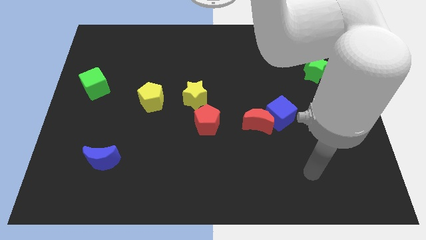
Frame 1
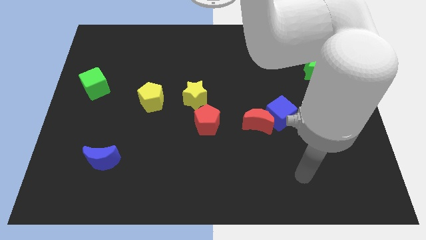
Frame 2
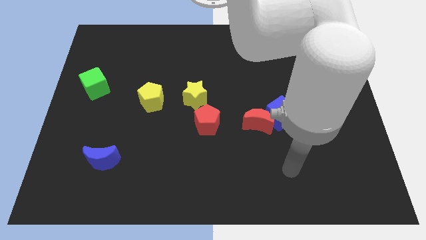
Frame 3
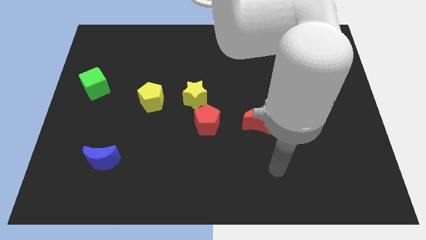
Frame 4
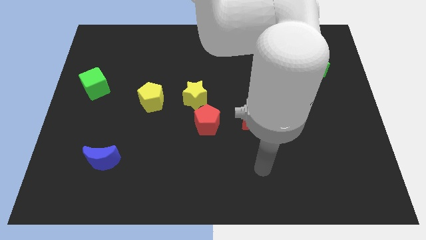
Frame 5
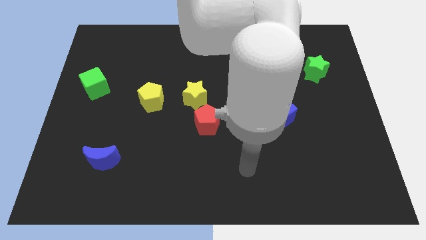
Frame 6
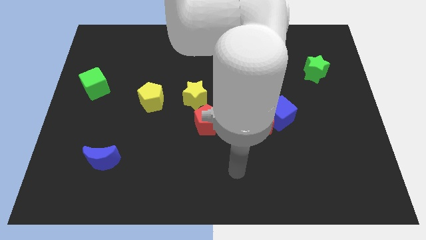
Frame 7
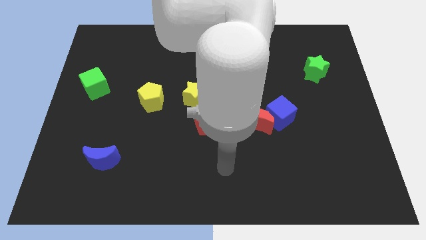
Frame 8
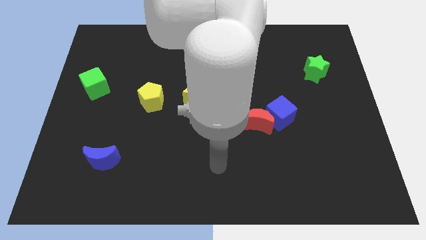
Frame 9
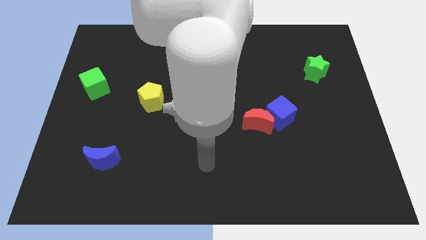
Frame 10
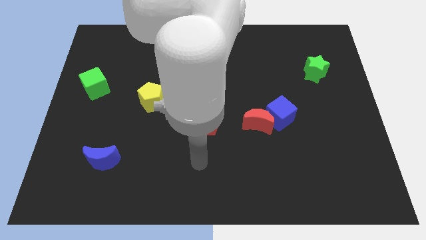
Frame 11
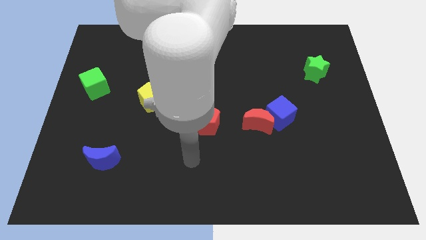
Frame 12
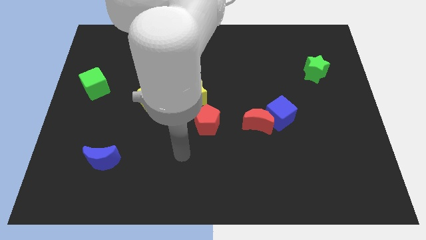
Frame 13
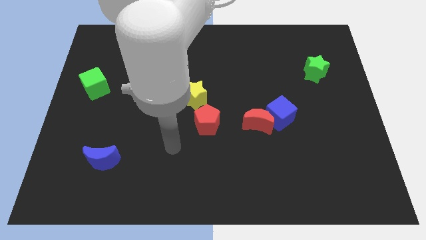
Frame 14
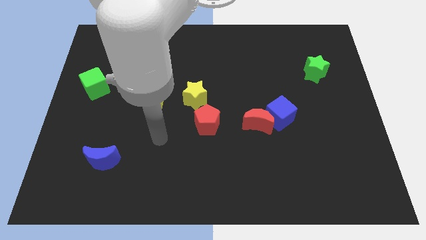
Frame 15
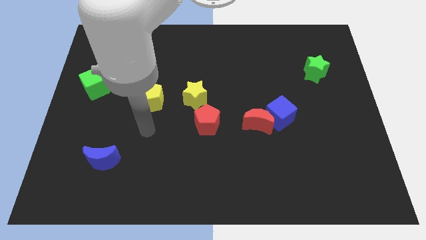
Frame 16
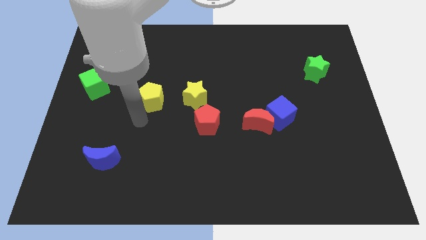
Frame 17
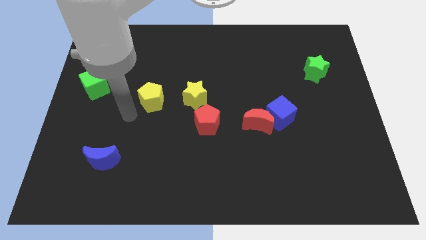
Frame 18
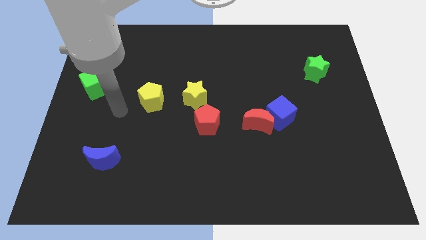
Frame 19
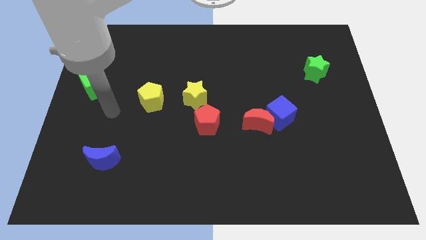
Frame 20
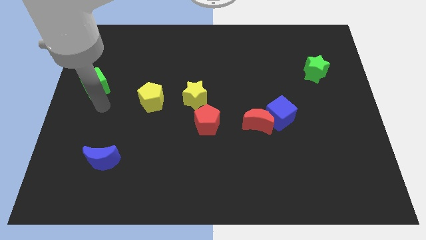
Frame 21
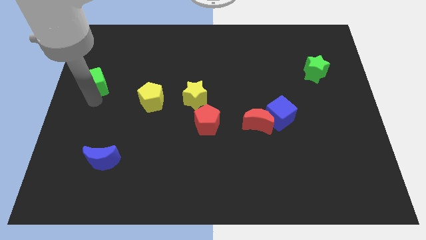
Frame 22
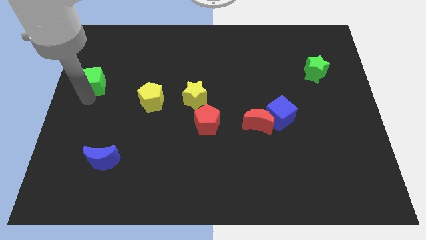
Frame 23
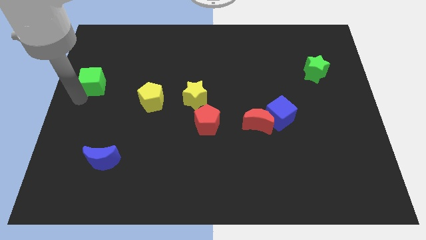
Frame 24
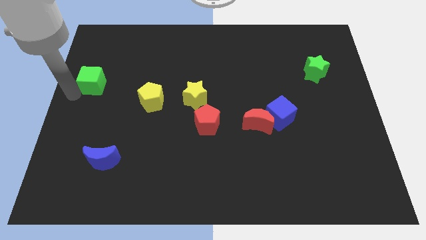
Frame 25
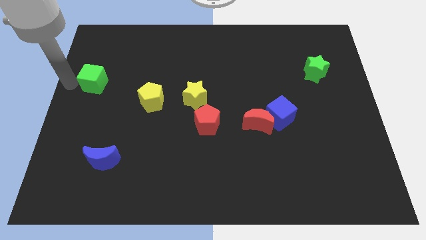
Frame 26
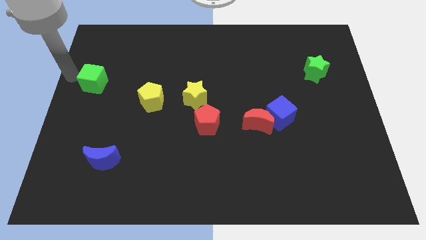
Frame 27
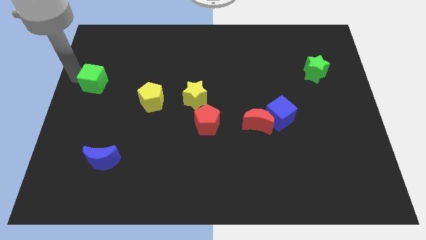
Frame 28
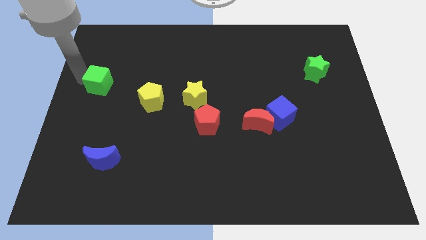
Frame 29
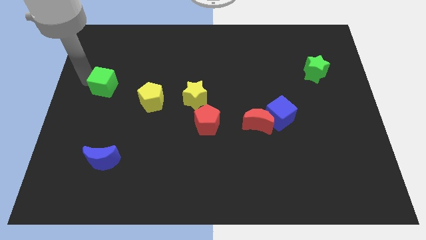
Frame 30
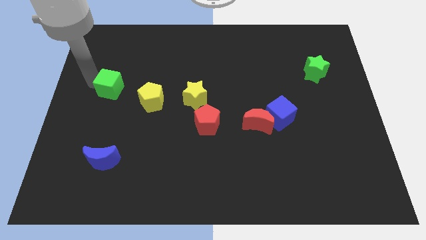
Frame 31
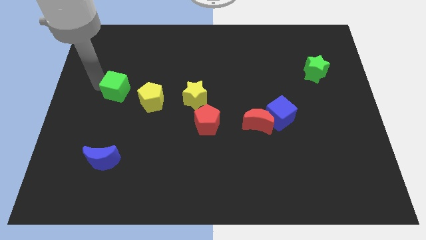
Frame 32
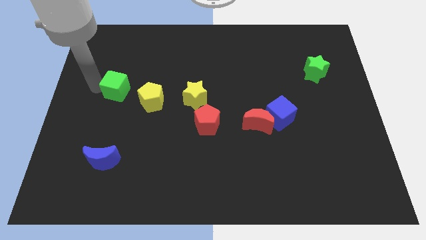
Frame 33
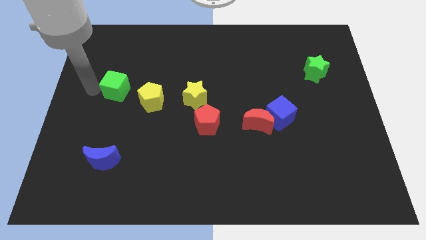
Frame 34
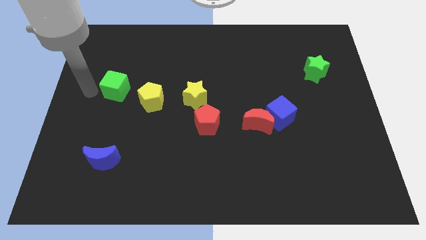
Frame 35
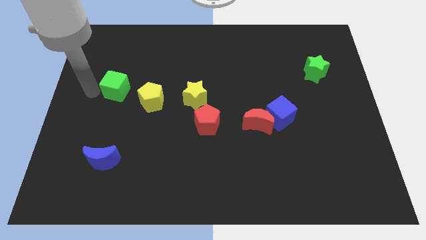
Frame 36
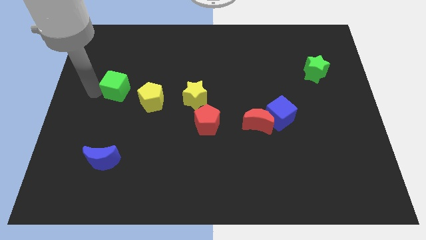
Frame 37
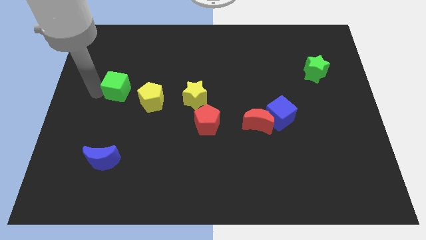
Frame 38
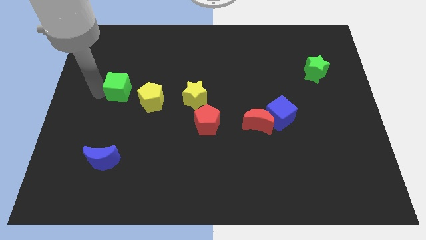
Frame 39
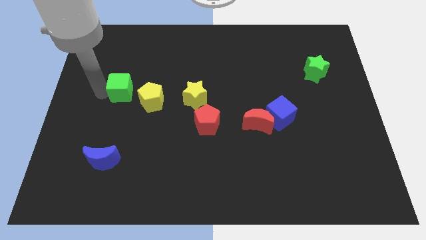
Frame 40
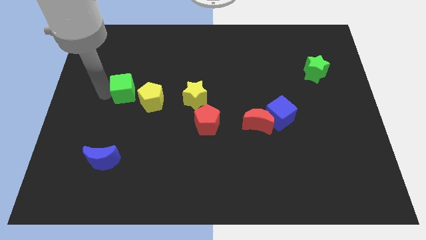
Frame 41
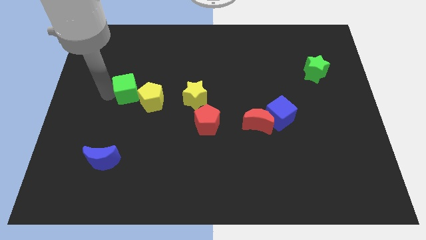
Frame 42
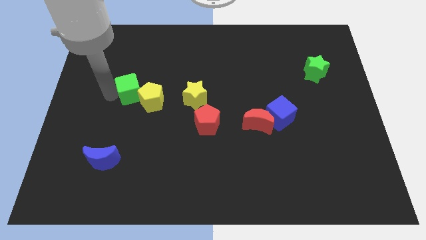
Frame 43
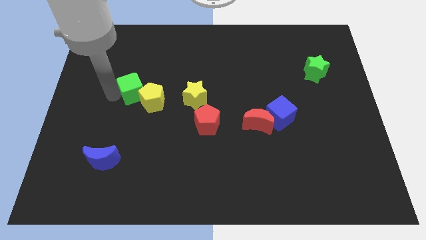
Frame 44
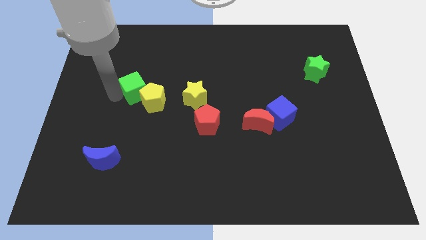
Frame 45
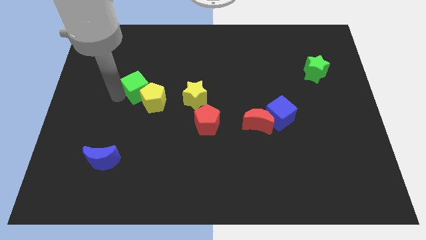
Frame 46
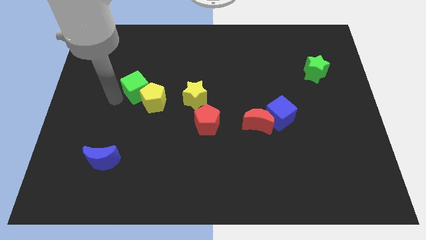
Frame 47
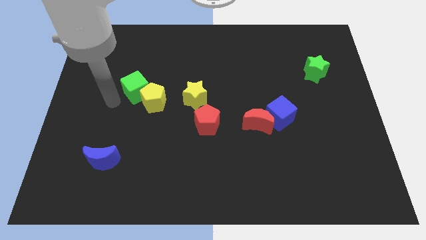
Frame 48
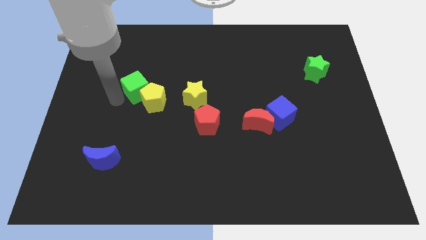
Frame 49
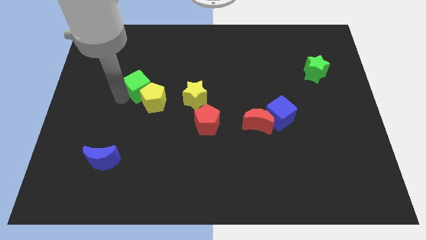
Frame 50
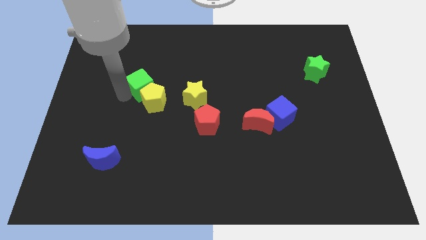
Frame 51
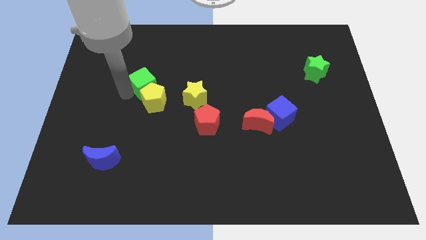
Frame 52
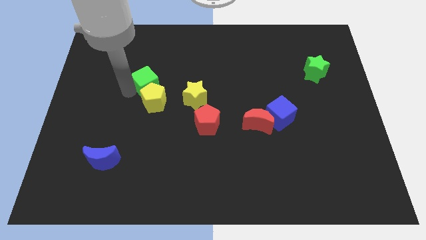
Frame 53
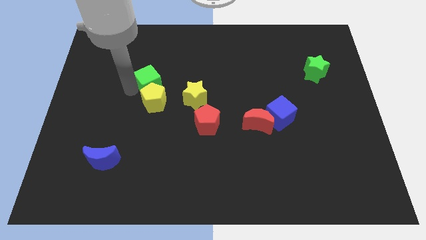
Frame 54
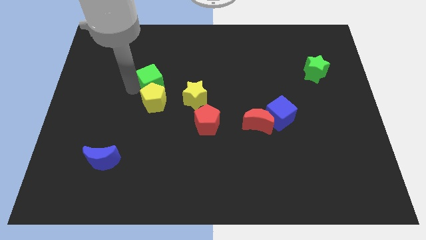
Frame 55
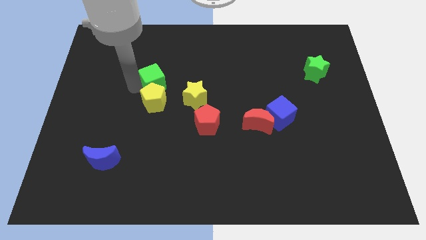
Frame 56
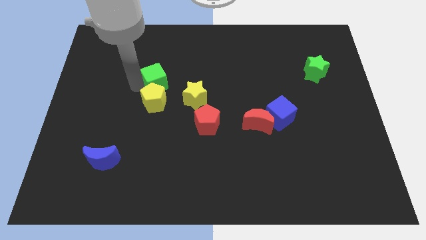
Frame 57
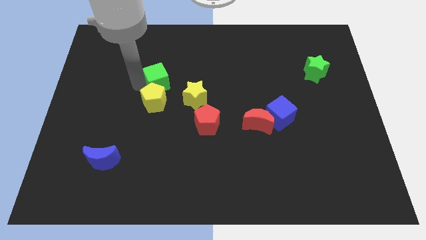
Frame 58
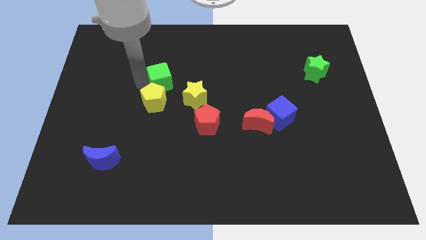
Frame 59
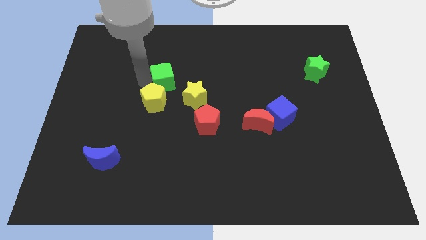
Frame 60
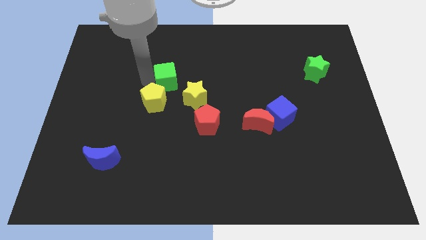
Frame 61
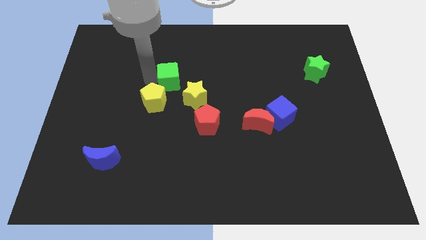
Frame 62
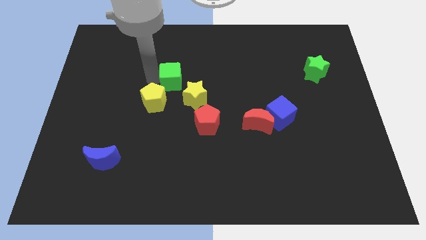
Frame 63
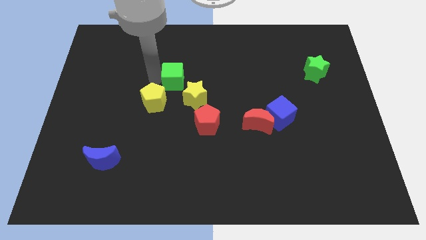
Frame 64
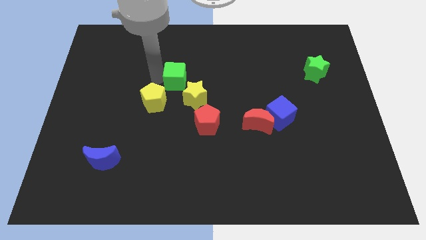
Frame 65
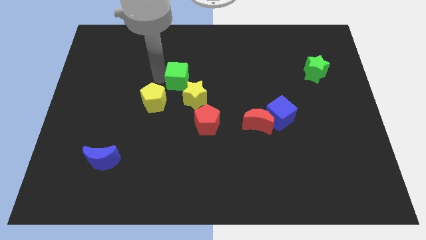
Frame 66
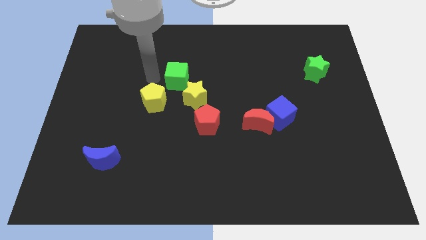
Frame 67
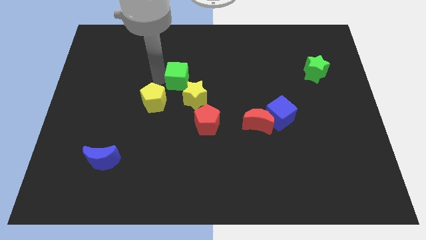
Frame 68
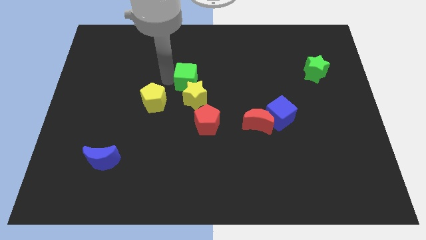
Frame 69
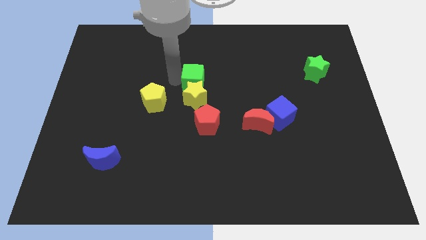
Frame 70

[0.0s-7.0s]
put the green cube to the top right side of the yellow star
